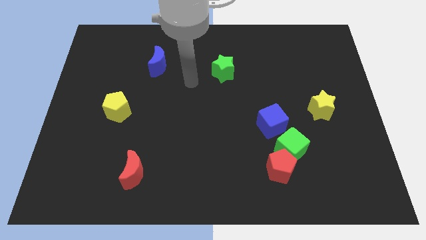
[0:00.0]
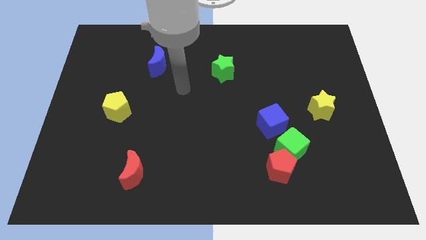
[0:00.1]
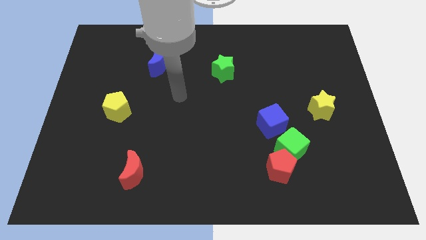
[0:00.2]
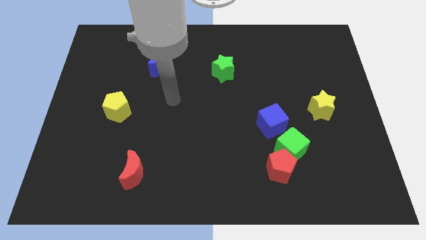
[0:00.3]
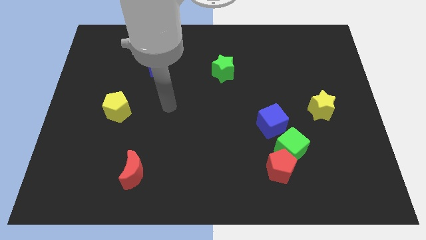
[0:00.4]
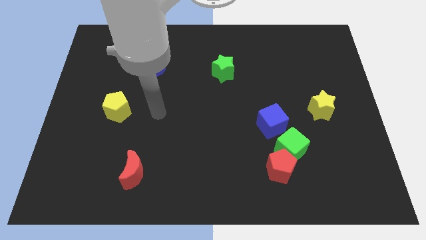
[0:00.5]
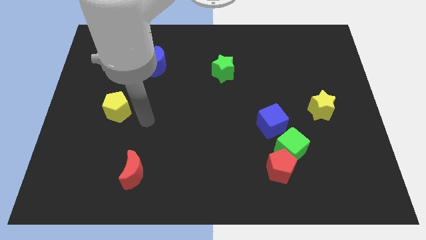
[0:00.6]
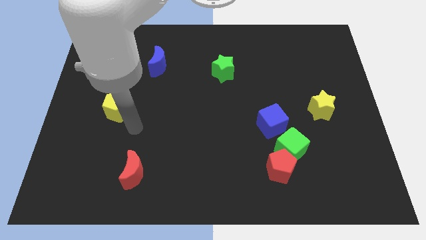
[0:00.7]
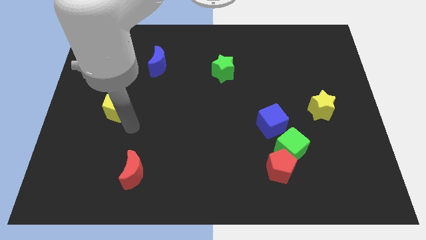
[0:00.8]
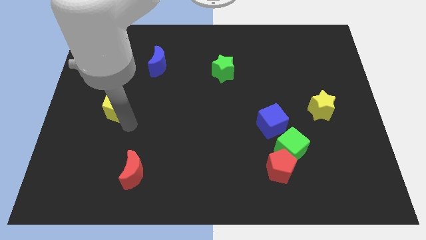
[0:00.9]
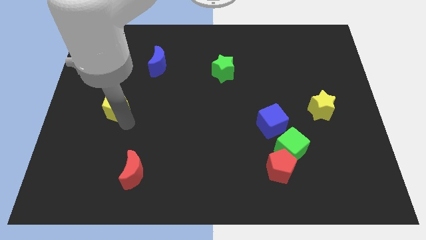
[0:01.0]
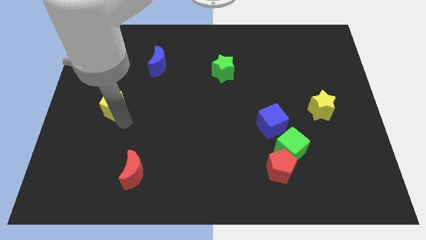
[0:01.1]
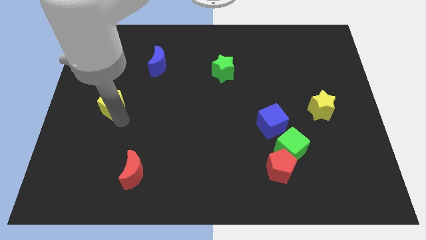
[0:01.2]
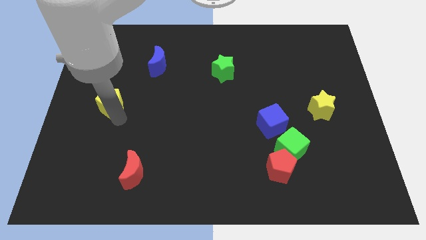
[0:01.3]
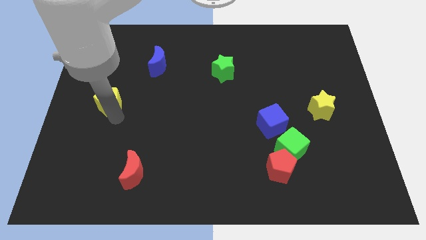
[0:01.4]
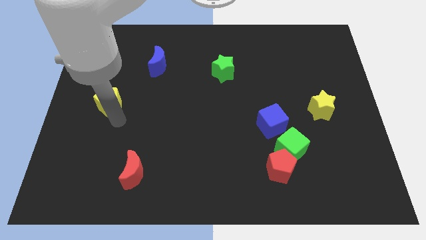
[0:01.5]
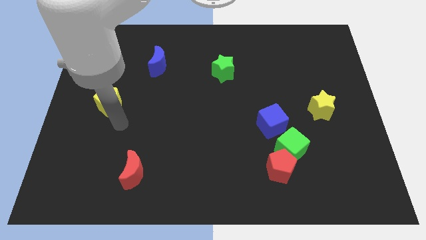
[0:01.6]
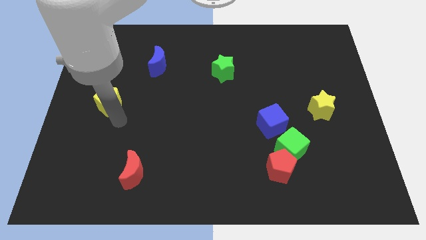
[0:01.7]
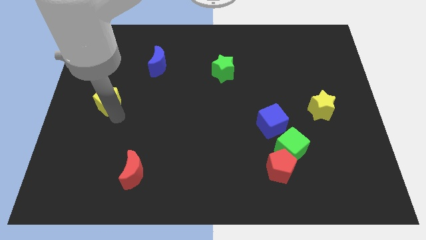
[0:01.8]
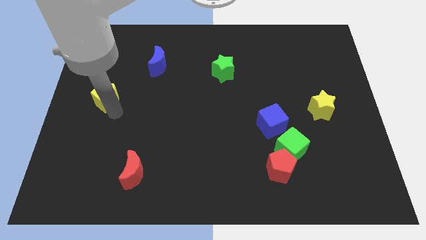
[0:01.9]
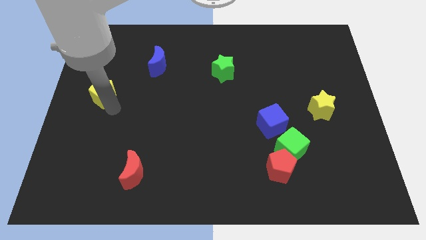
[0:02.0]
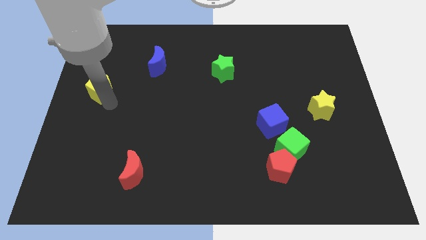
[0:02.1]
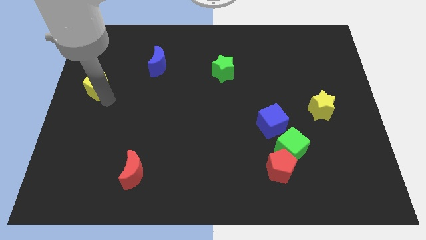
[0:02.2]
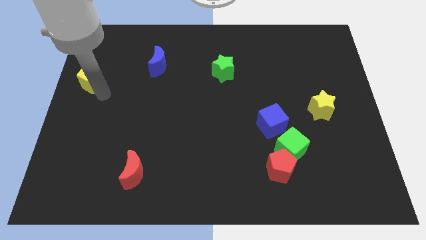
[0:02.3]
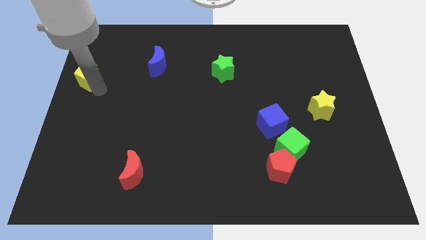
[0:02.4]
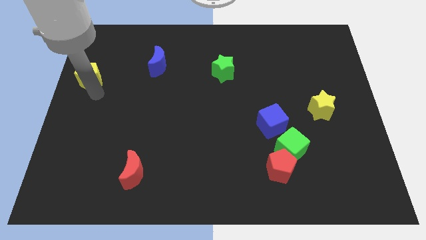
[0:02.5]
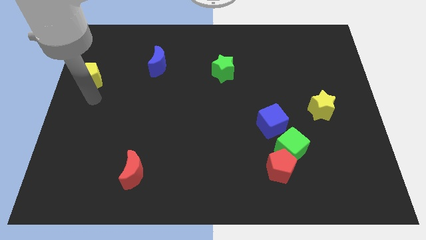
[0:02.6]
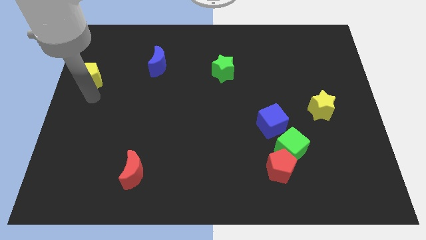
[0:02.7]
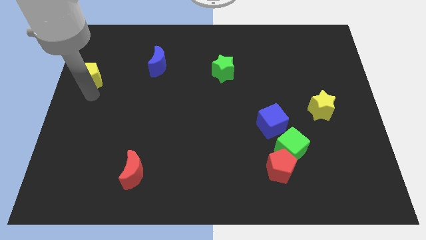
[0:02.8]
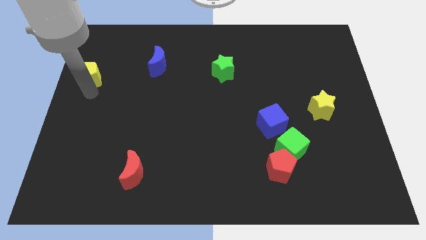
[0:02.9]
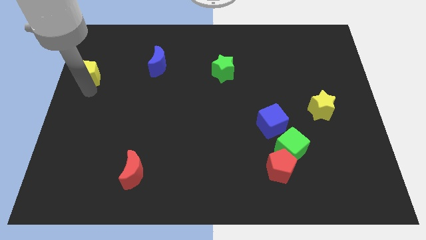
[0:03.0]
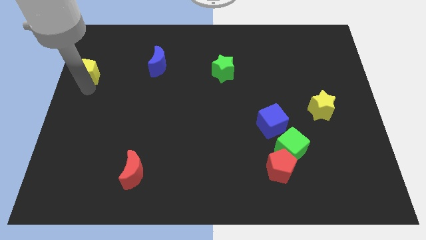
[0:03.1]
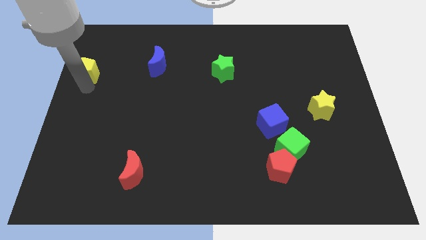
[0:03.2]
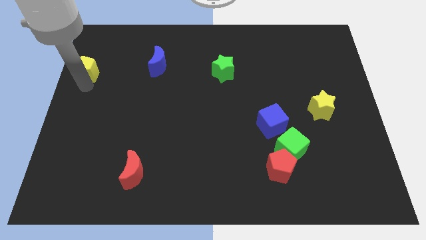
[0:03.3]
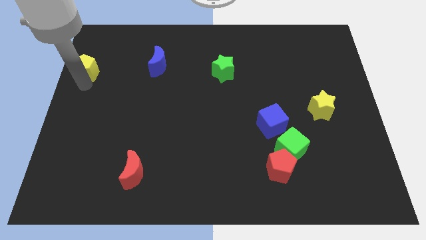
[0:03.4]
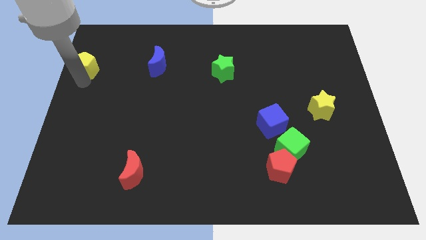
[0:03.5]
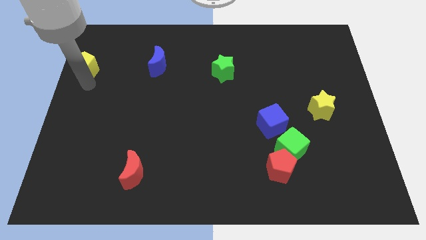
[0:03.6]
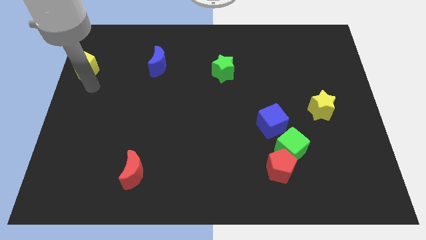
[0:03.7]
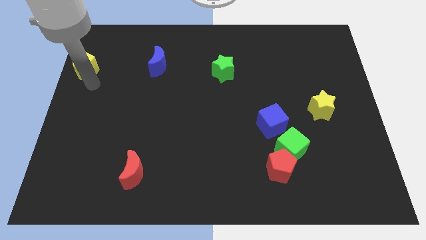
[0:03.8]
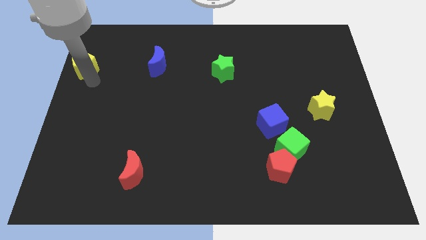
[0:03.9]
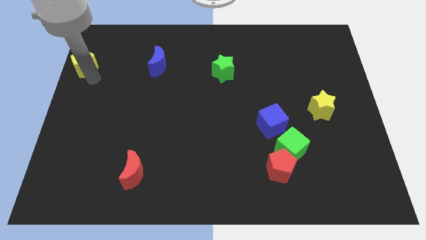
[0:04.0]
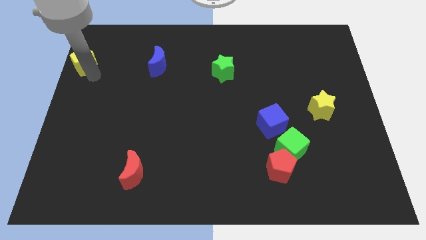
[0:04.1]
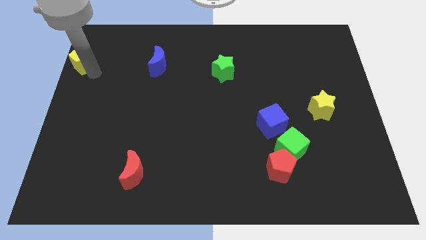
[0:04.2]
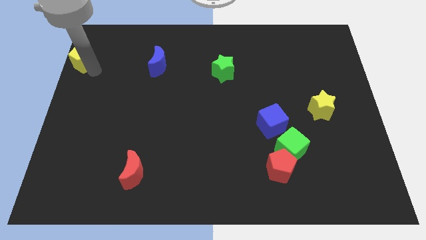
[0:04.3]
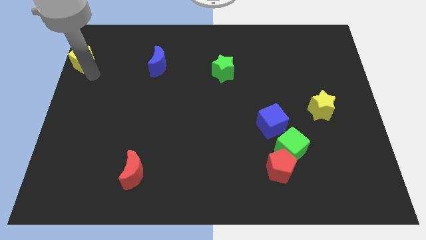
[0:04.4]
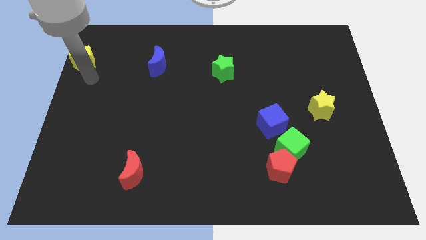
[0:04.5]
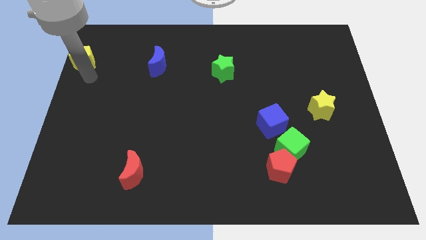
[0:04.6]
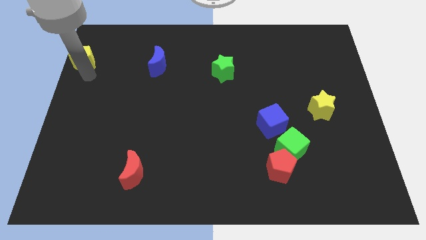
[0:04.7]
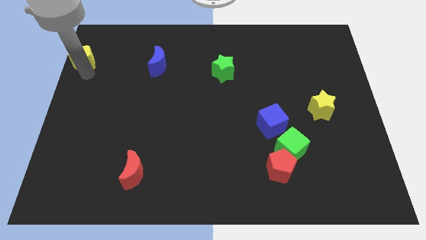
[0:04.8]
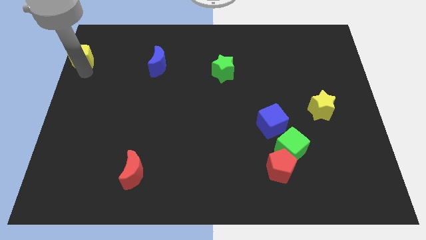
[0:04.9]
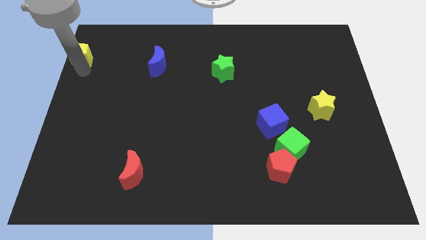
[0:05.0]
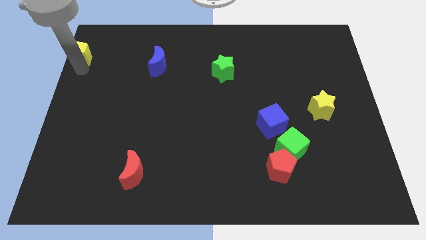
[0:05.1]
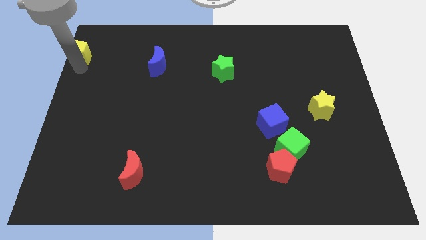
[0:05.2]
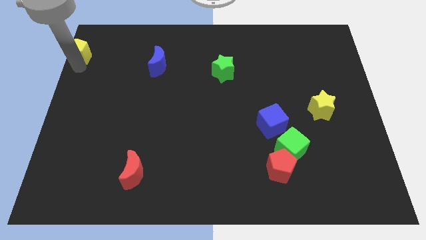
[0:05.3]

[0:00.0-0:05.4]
put the yellow pentagon to the upper left corner
